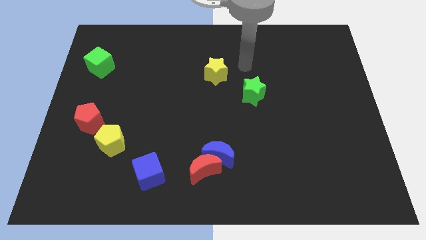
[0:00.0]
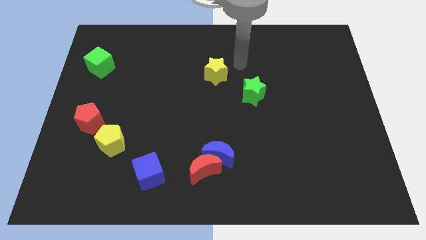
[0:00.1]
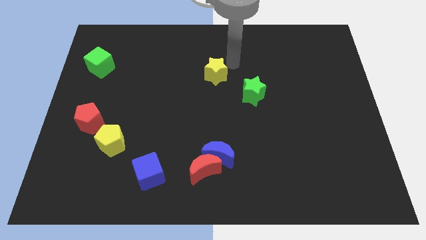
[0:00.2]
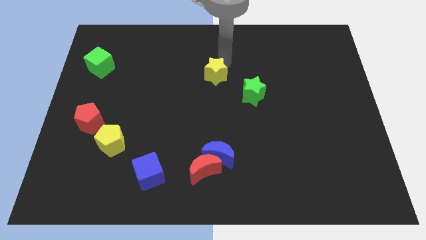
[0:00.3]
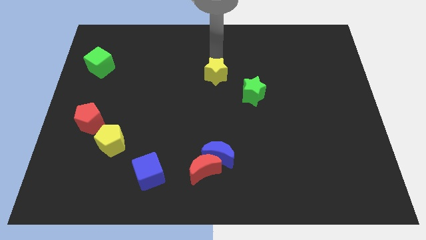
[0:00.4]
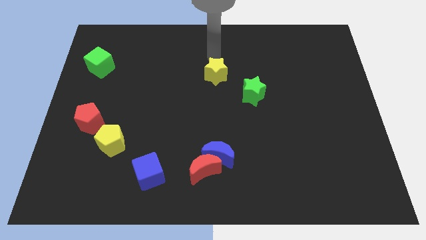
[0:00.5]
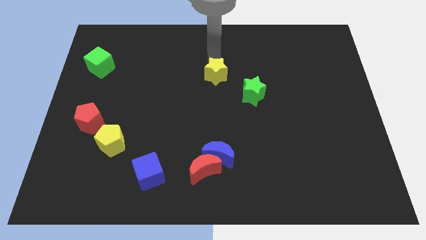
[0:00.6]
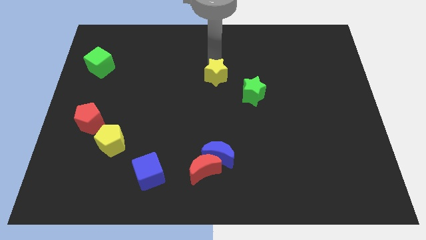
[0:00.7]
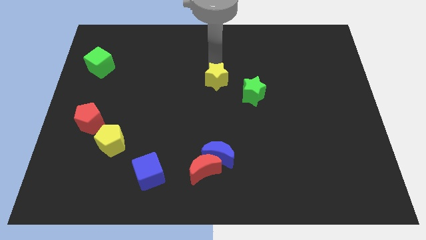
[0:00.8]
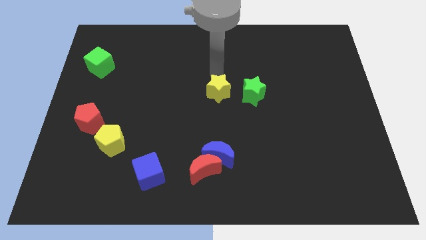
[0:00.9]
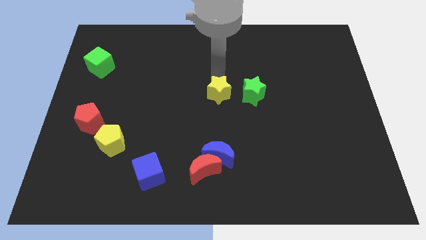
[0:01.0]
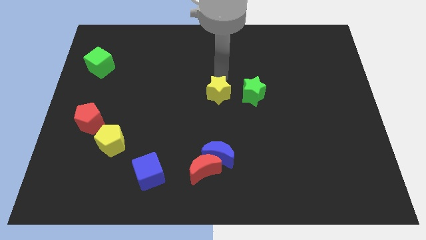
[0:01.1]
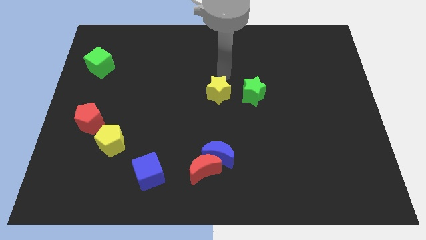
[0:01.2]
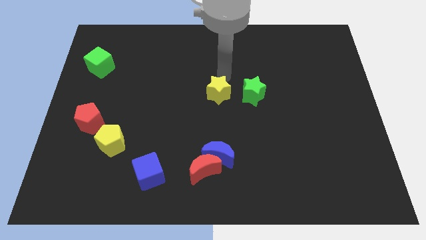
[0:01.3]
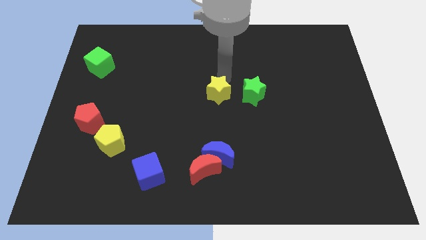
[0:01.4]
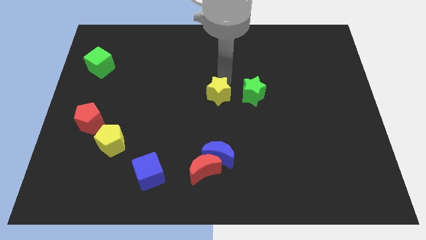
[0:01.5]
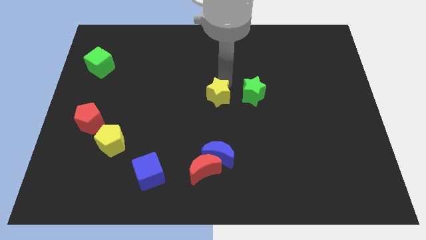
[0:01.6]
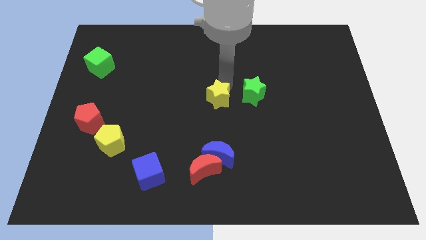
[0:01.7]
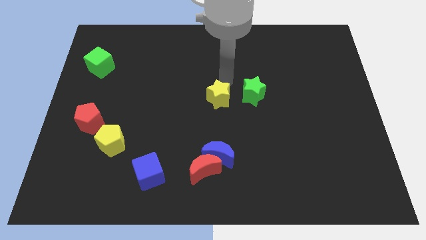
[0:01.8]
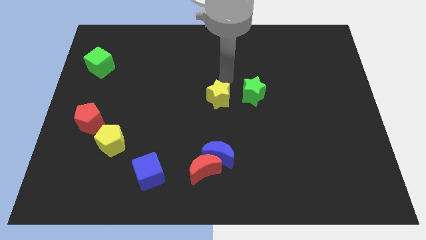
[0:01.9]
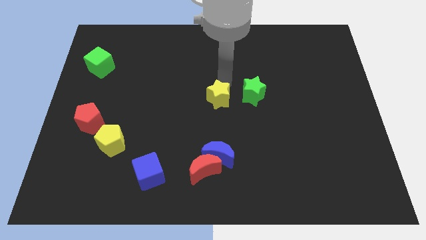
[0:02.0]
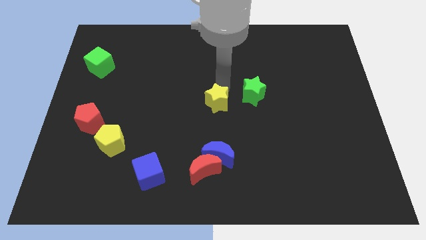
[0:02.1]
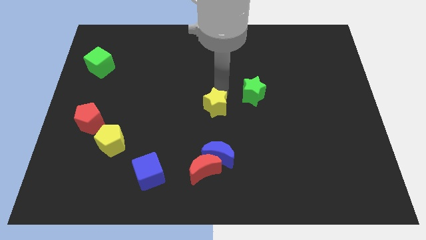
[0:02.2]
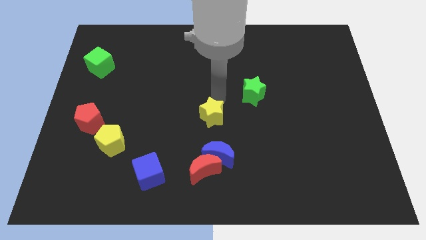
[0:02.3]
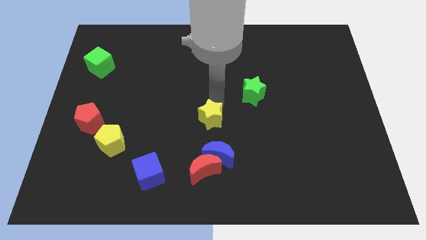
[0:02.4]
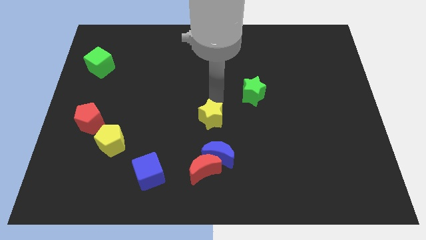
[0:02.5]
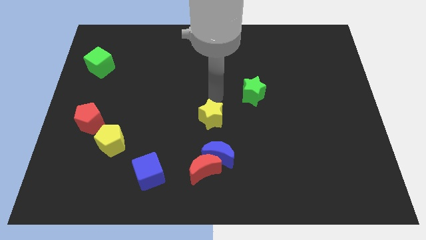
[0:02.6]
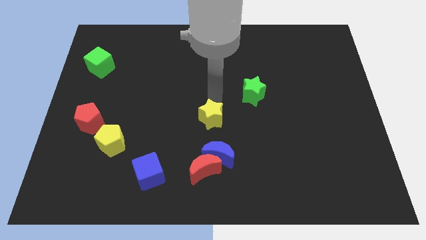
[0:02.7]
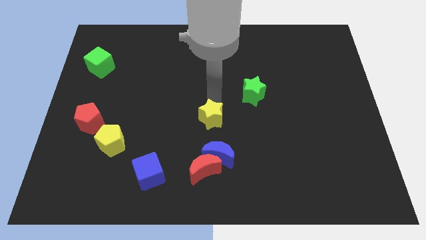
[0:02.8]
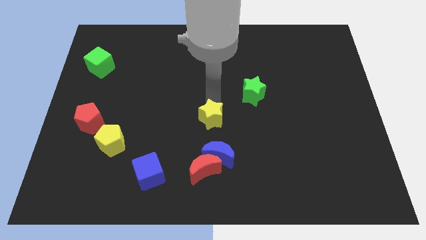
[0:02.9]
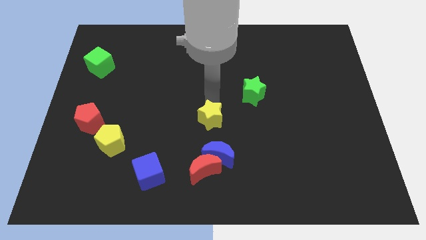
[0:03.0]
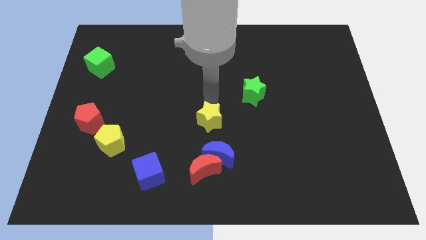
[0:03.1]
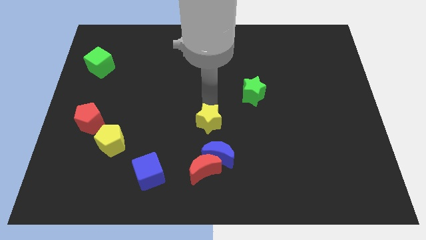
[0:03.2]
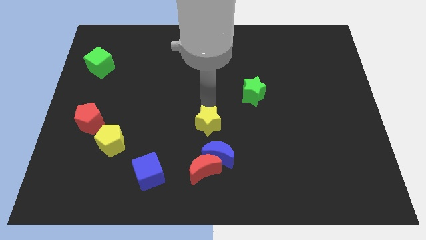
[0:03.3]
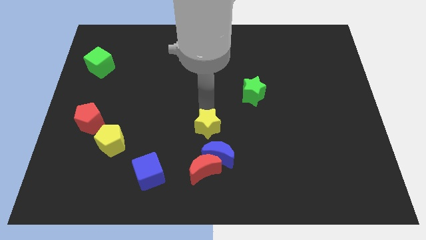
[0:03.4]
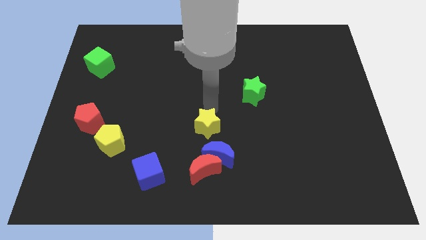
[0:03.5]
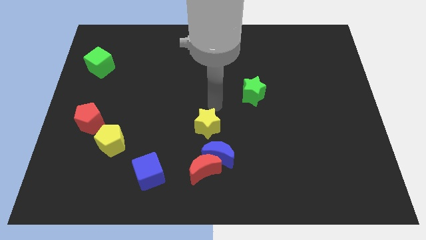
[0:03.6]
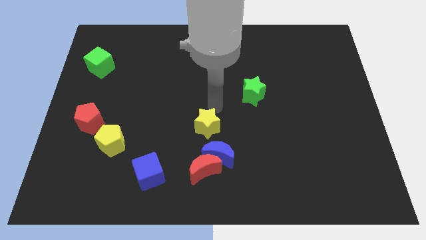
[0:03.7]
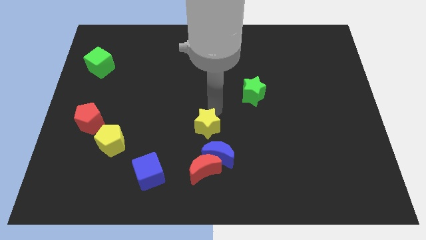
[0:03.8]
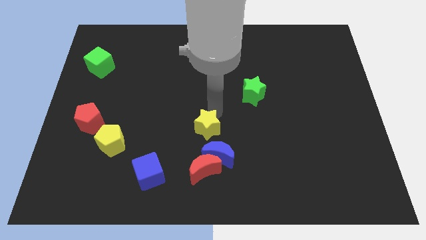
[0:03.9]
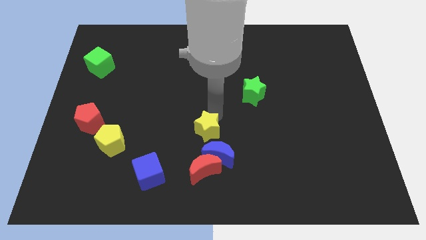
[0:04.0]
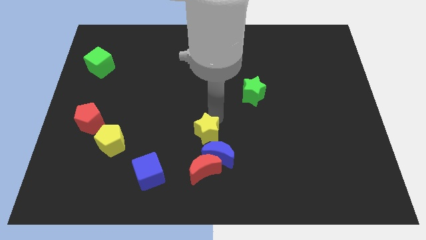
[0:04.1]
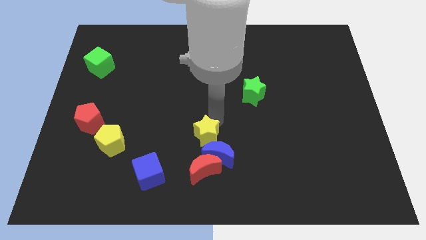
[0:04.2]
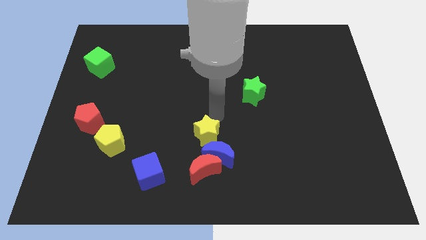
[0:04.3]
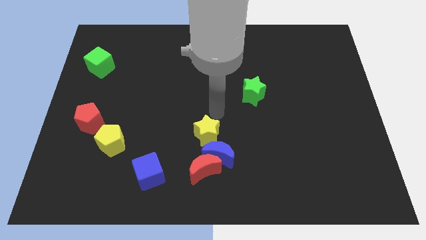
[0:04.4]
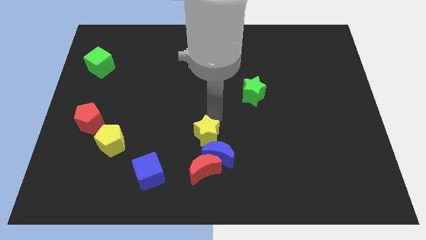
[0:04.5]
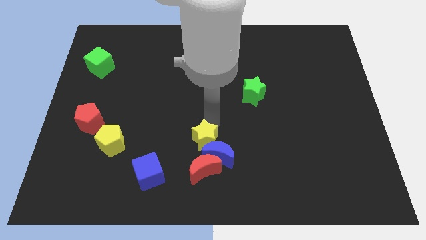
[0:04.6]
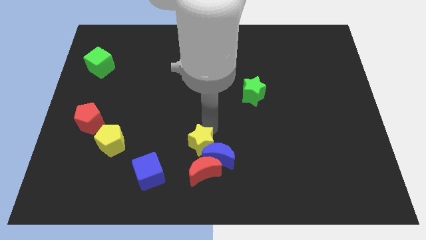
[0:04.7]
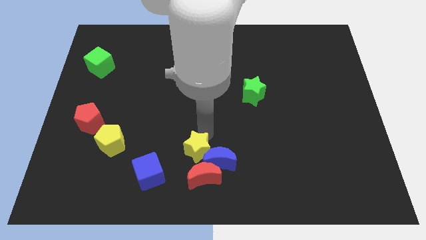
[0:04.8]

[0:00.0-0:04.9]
slide the yellow star close to the red moon

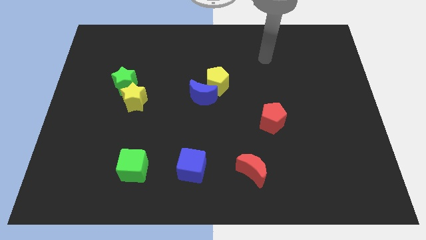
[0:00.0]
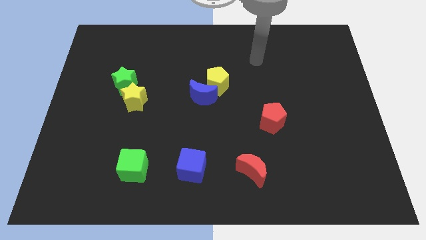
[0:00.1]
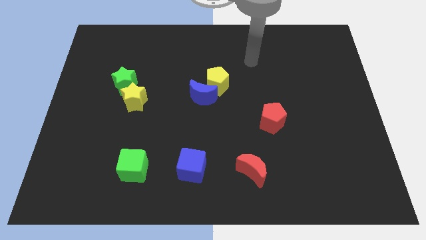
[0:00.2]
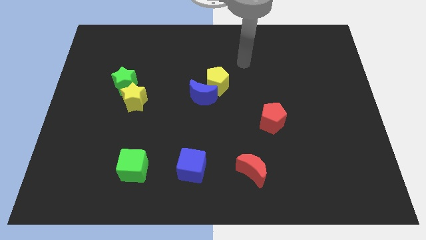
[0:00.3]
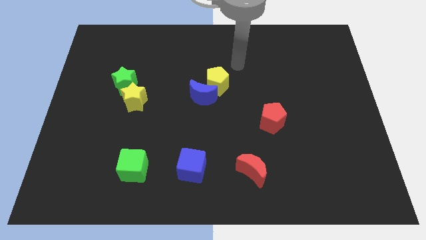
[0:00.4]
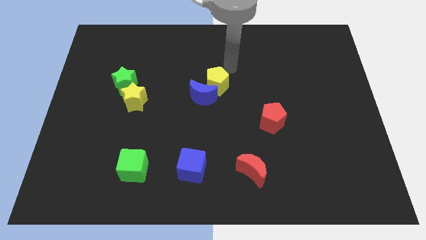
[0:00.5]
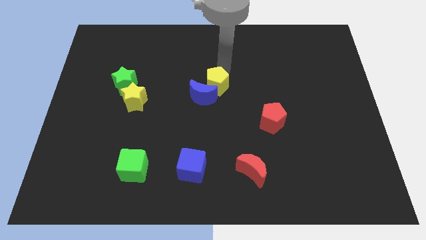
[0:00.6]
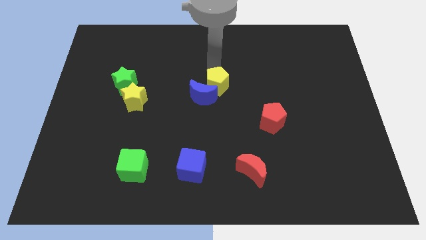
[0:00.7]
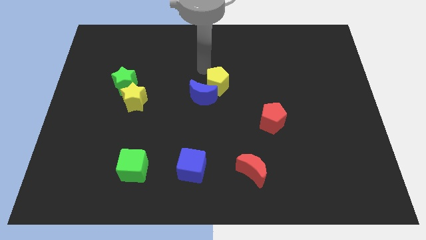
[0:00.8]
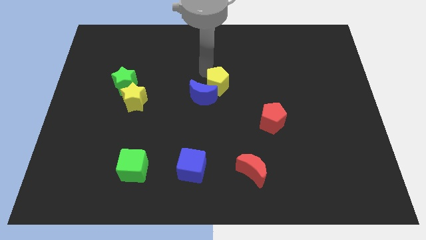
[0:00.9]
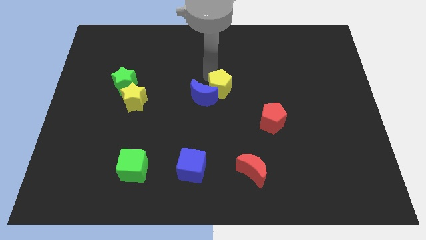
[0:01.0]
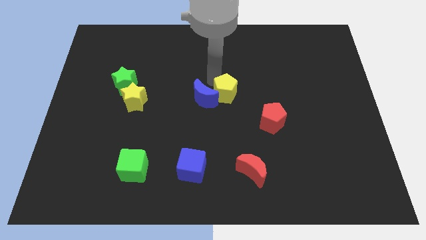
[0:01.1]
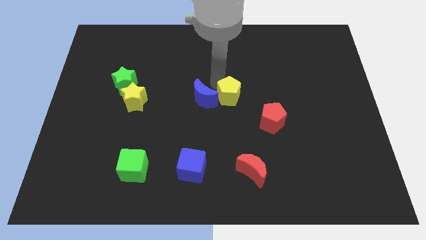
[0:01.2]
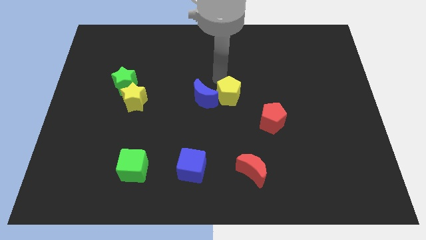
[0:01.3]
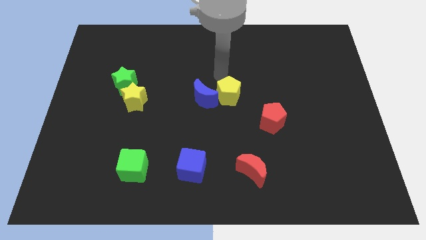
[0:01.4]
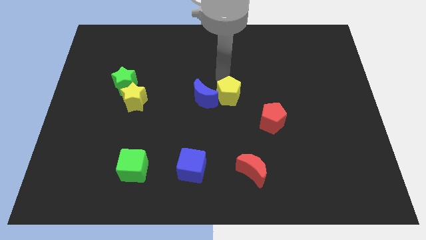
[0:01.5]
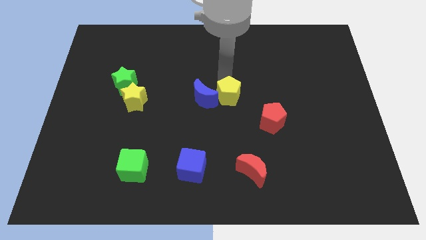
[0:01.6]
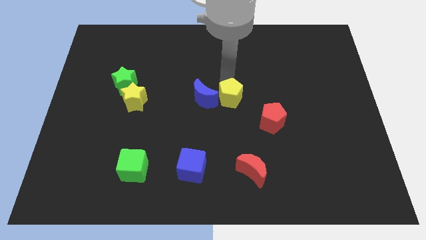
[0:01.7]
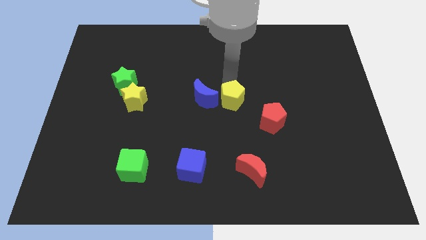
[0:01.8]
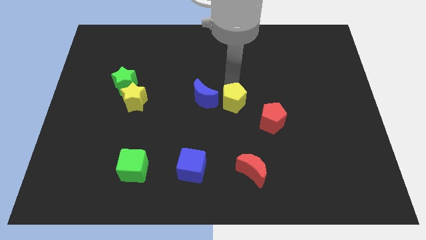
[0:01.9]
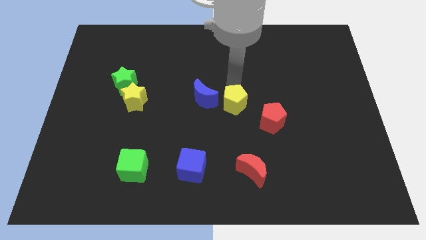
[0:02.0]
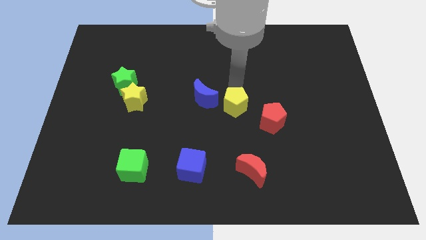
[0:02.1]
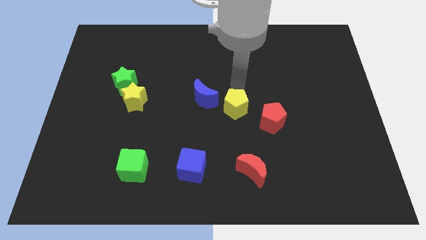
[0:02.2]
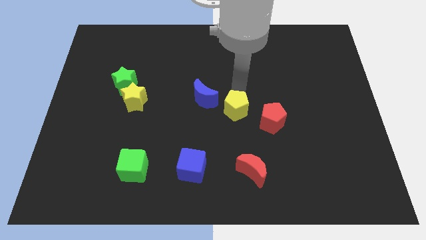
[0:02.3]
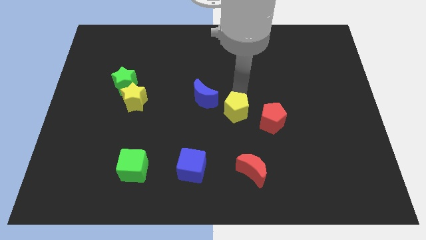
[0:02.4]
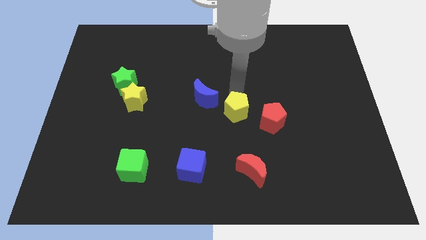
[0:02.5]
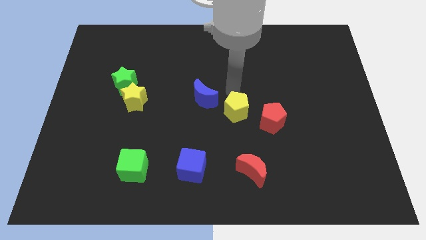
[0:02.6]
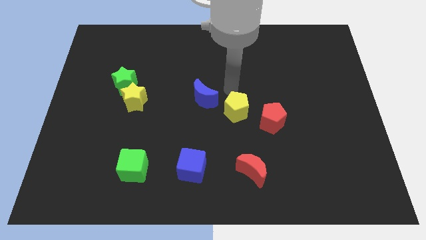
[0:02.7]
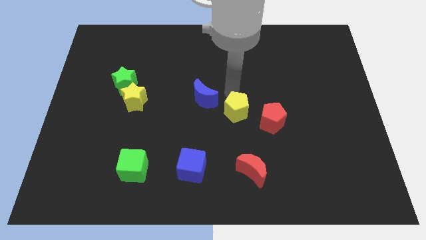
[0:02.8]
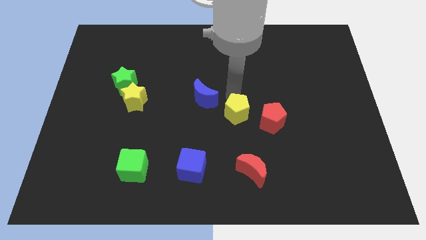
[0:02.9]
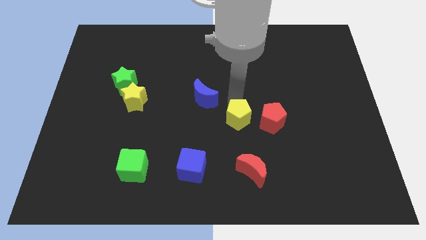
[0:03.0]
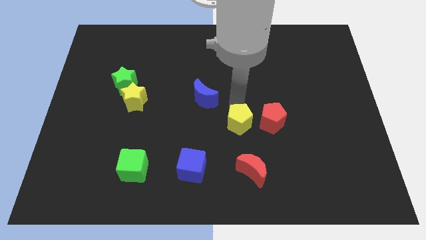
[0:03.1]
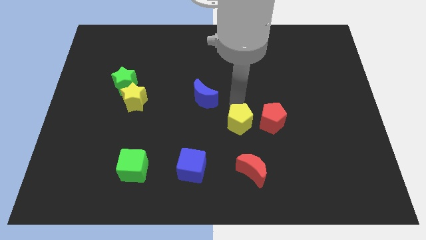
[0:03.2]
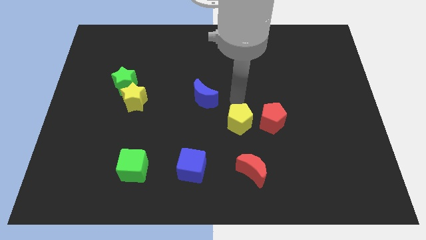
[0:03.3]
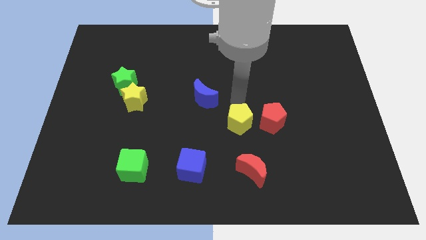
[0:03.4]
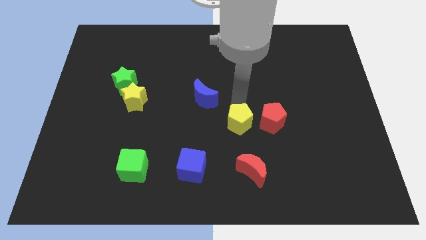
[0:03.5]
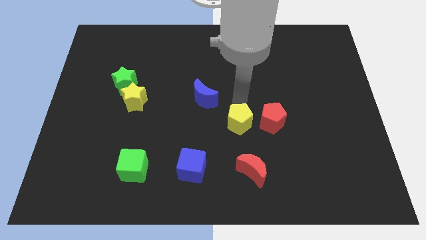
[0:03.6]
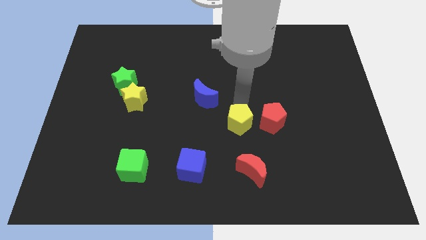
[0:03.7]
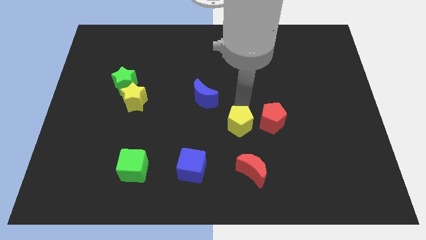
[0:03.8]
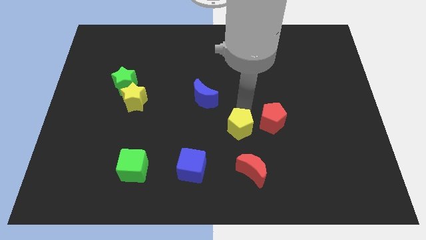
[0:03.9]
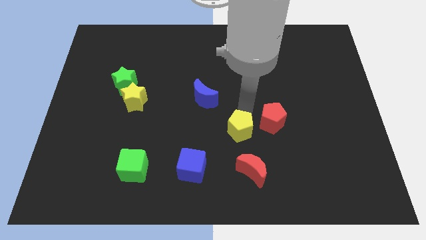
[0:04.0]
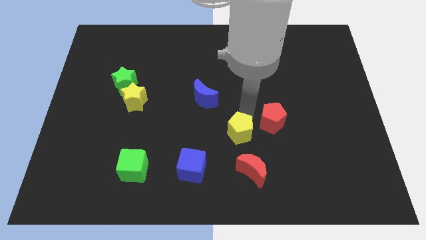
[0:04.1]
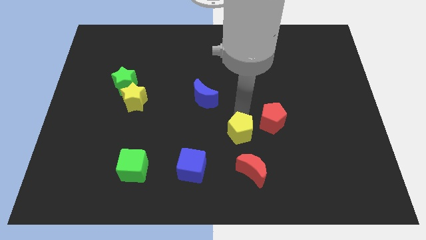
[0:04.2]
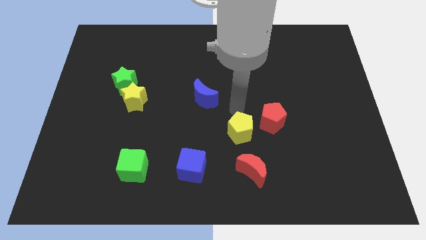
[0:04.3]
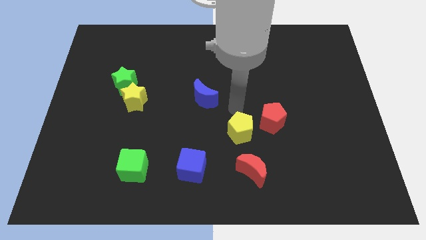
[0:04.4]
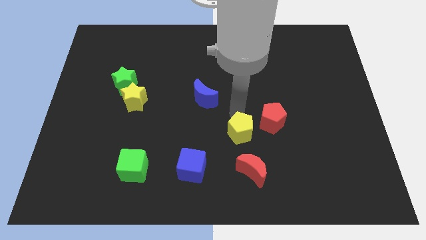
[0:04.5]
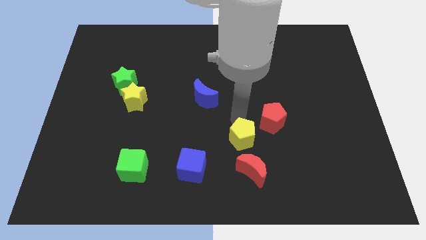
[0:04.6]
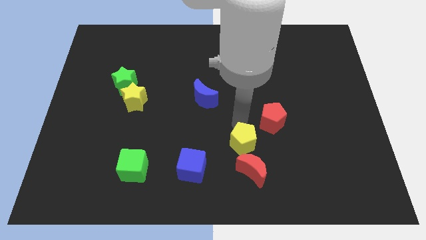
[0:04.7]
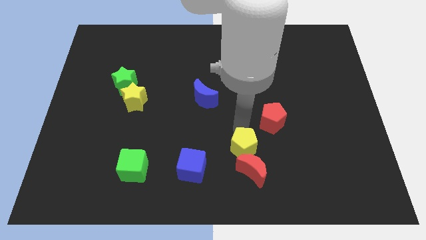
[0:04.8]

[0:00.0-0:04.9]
put the yellow pentagon to the red moon
